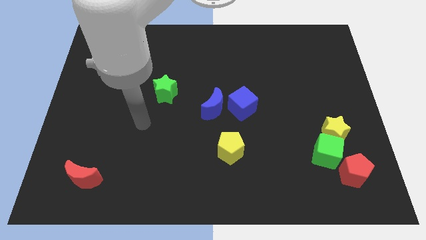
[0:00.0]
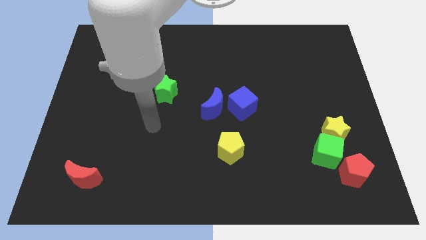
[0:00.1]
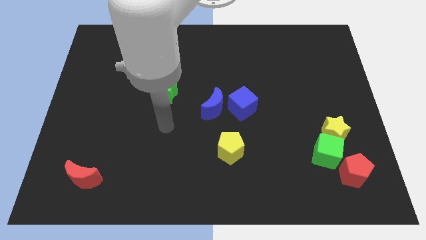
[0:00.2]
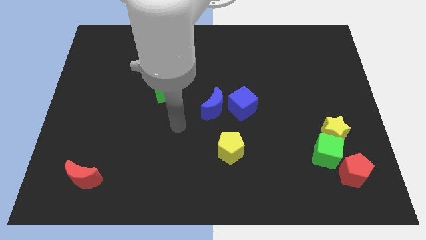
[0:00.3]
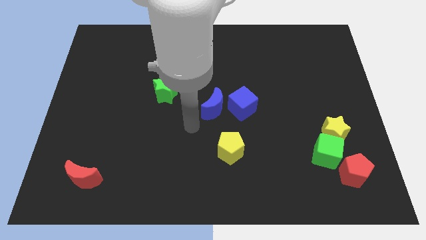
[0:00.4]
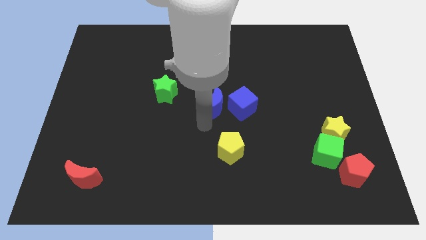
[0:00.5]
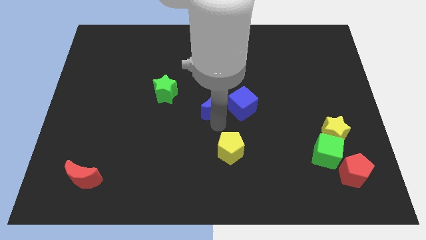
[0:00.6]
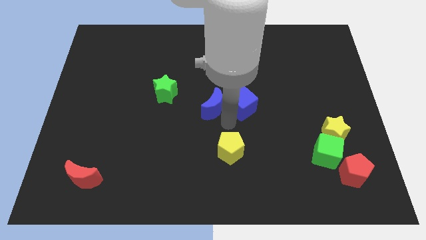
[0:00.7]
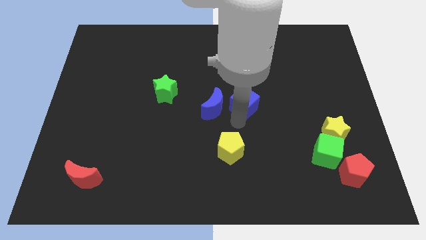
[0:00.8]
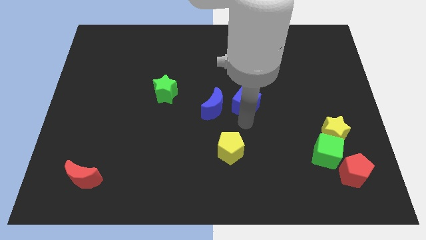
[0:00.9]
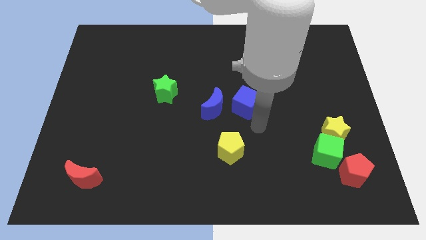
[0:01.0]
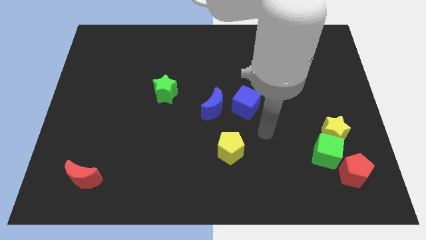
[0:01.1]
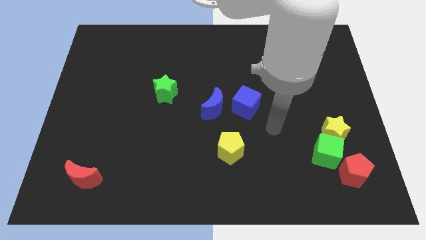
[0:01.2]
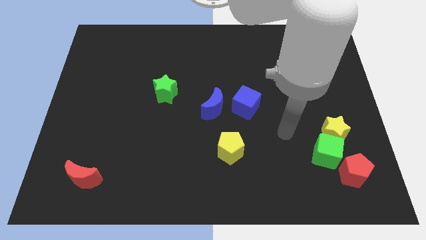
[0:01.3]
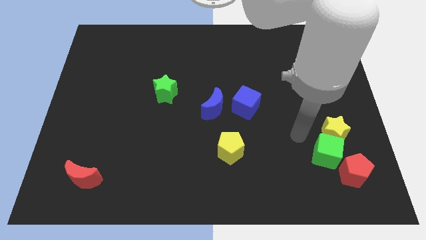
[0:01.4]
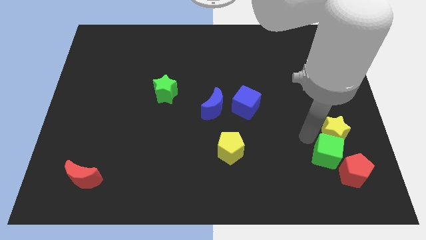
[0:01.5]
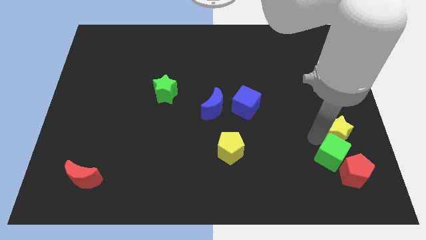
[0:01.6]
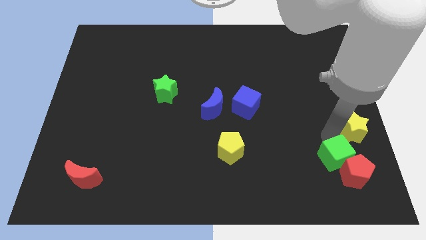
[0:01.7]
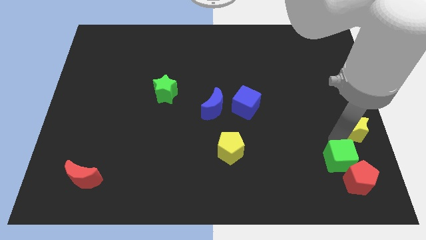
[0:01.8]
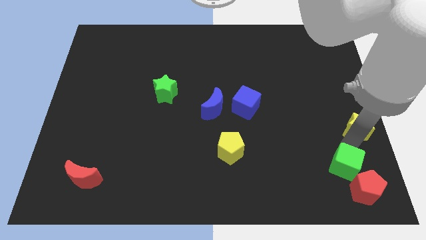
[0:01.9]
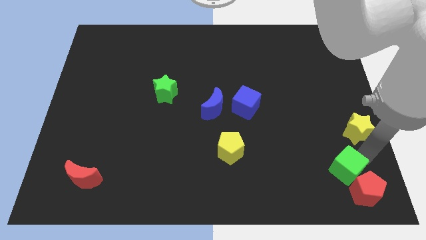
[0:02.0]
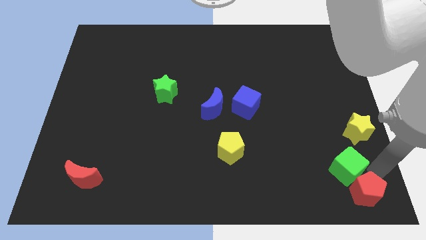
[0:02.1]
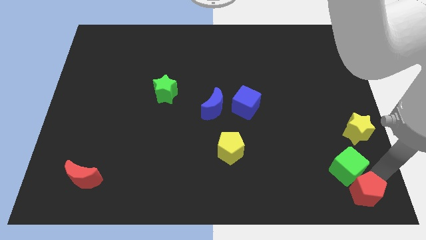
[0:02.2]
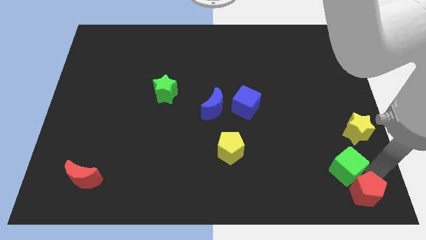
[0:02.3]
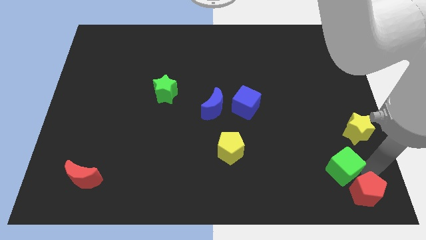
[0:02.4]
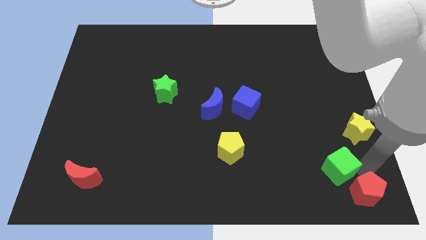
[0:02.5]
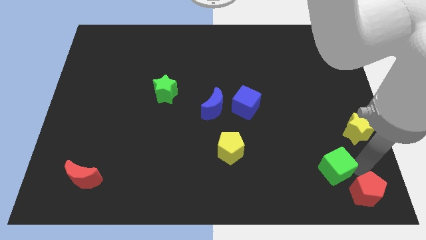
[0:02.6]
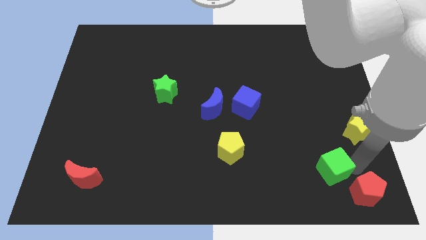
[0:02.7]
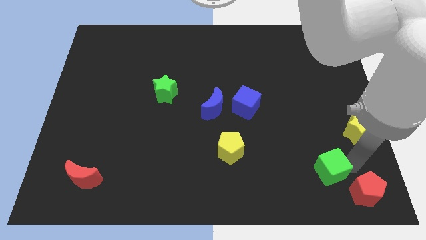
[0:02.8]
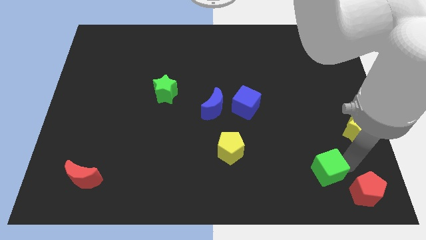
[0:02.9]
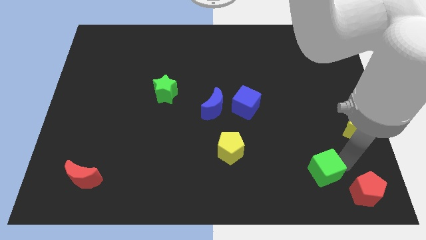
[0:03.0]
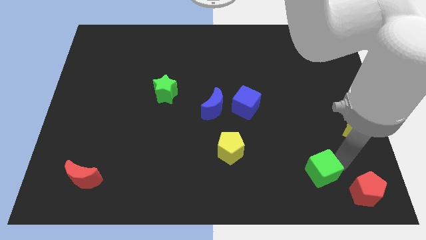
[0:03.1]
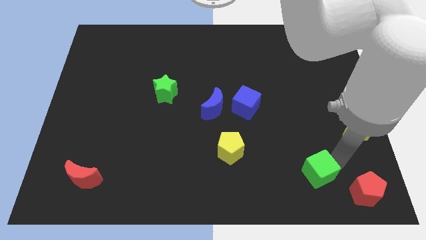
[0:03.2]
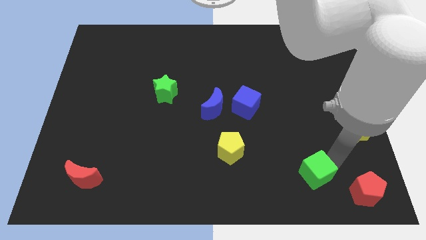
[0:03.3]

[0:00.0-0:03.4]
separate the green cube from the yellow star and red pentagon

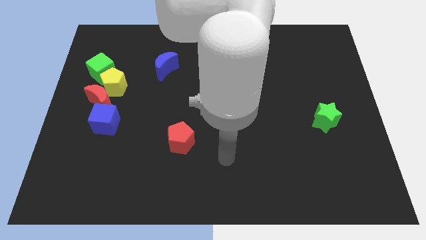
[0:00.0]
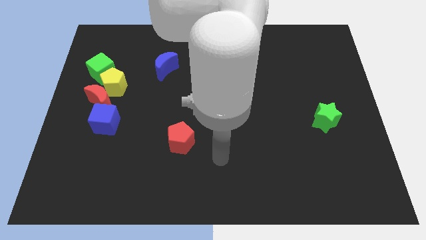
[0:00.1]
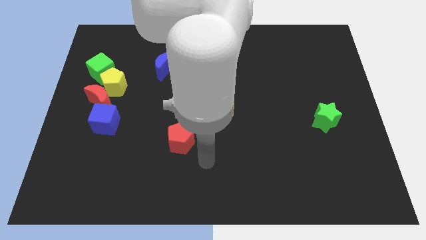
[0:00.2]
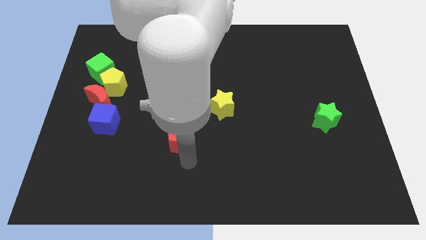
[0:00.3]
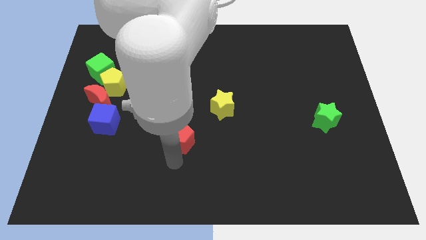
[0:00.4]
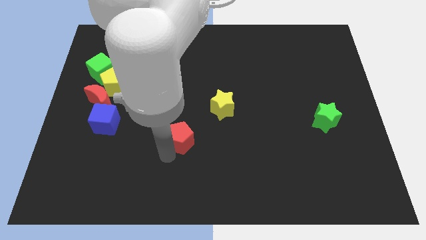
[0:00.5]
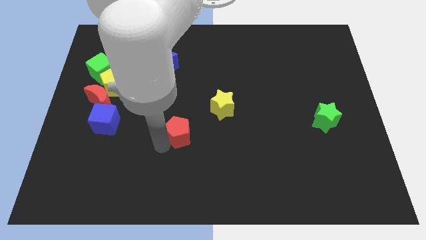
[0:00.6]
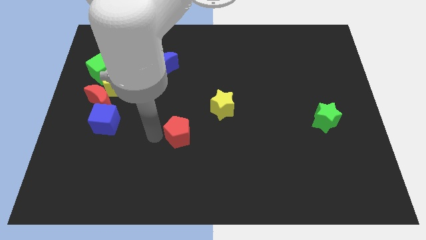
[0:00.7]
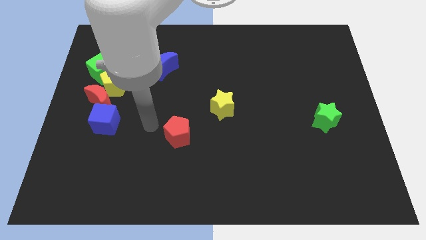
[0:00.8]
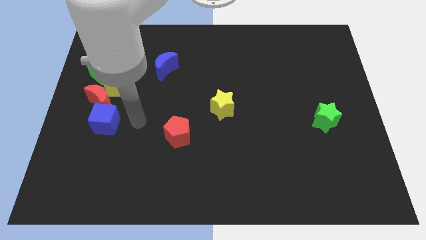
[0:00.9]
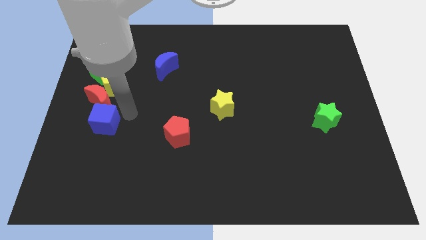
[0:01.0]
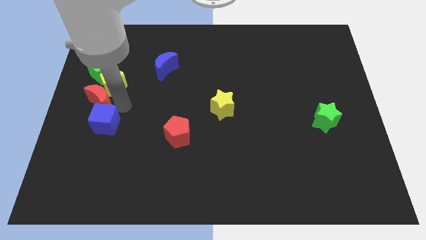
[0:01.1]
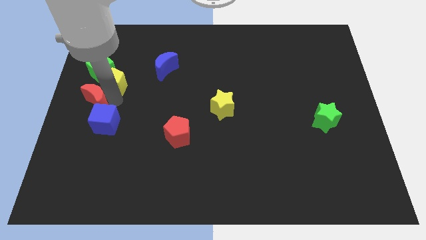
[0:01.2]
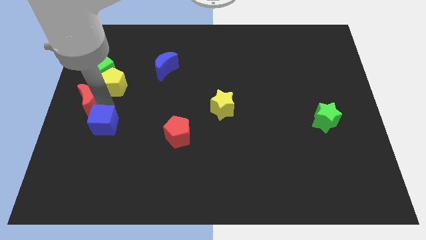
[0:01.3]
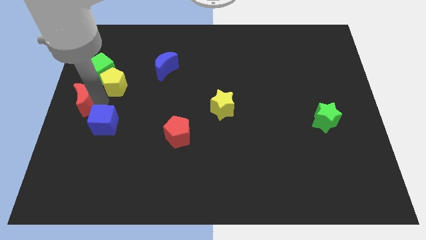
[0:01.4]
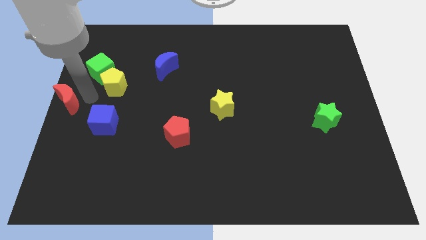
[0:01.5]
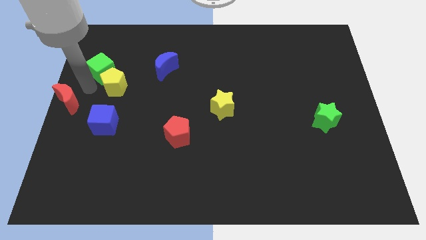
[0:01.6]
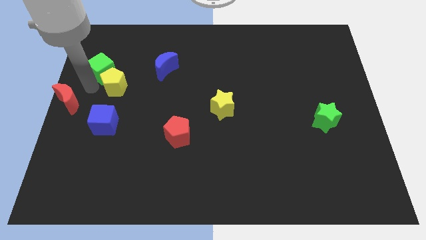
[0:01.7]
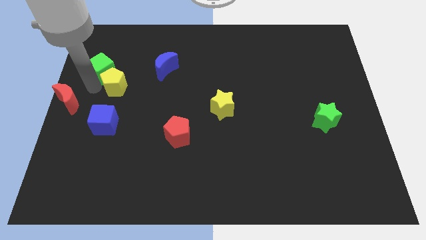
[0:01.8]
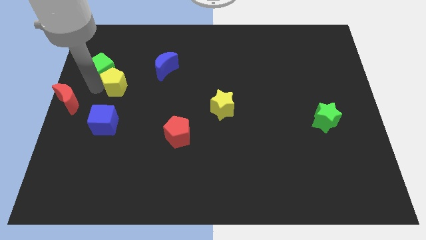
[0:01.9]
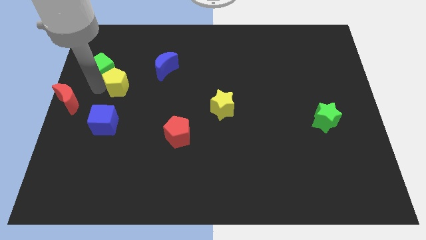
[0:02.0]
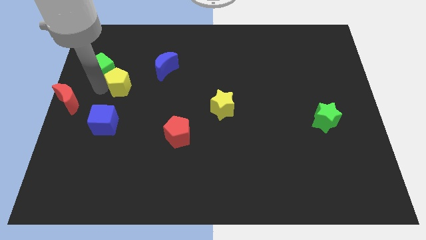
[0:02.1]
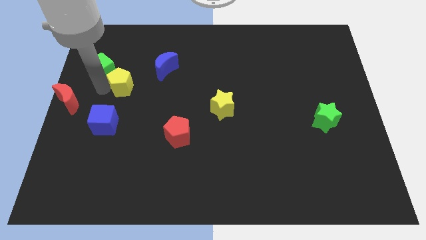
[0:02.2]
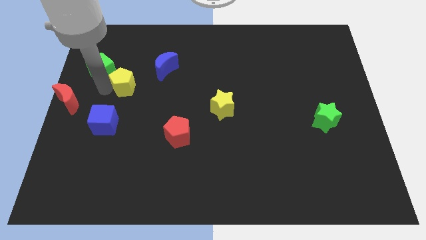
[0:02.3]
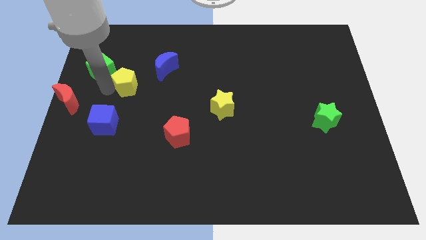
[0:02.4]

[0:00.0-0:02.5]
move the yellow pentagon away from the red moon and green cube

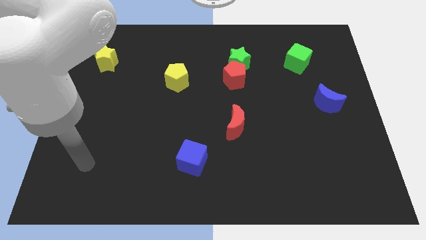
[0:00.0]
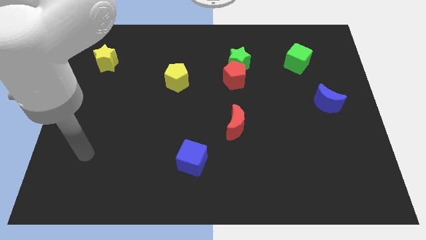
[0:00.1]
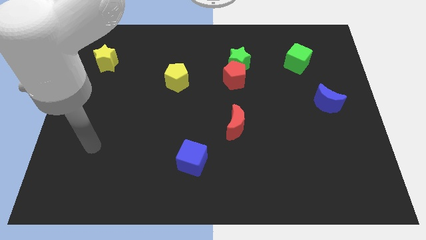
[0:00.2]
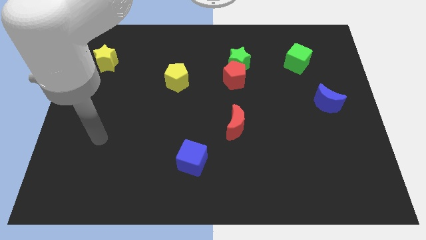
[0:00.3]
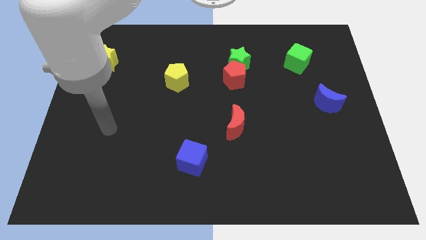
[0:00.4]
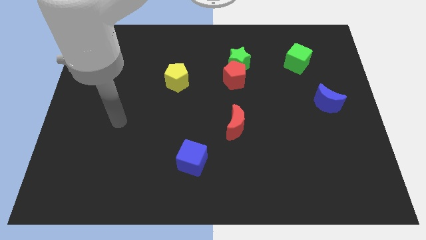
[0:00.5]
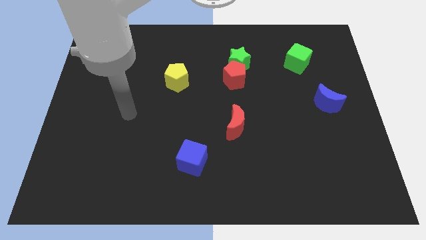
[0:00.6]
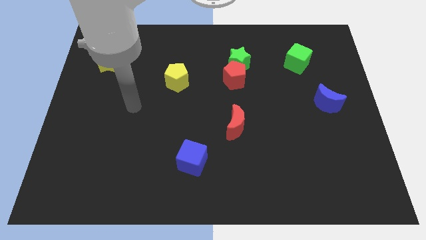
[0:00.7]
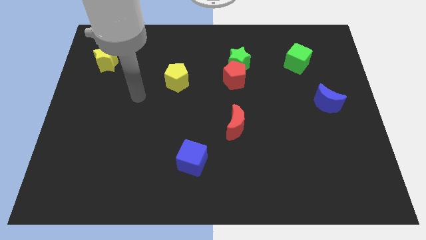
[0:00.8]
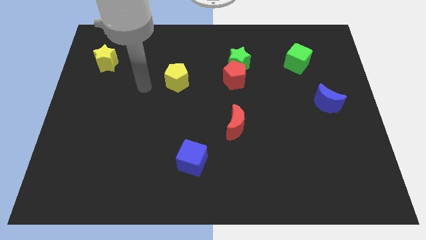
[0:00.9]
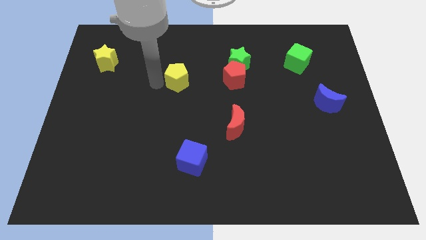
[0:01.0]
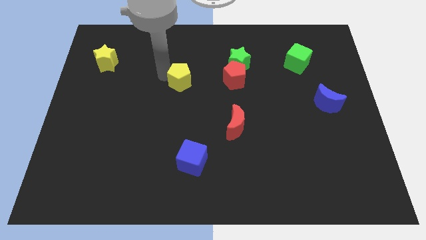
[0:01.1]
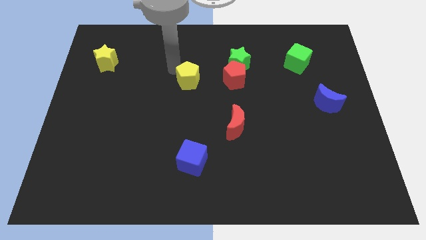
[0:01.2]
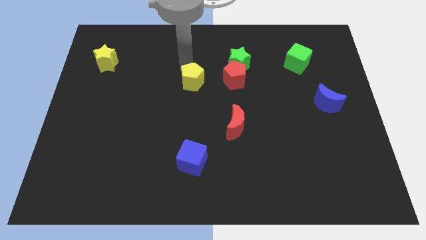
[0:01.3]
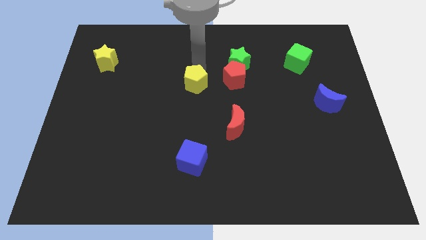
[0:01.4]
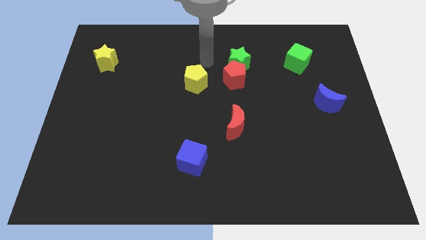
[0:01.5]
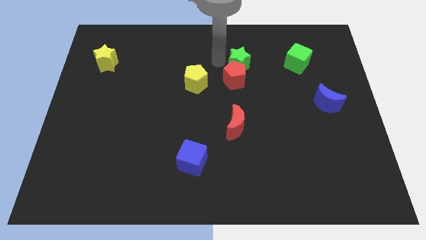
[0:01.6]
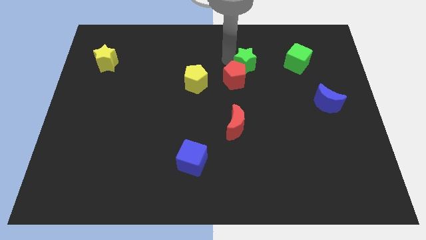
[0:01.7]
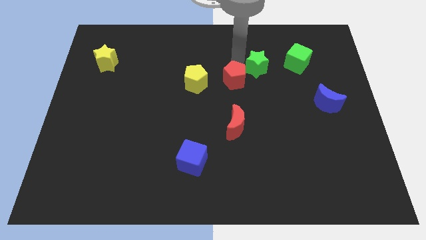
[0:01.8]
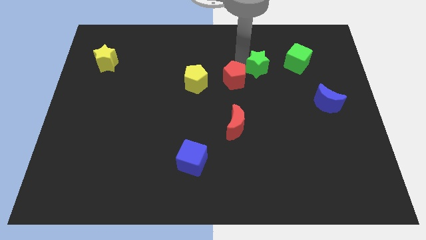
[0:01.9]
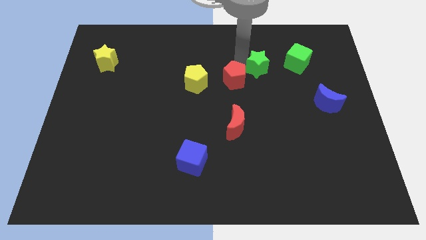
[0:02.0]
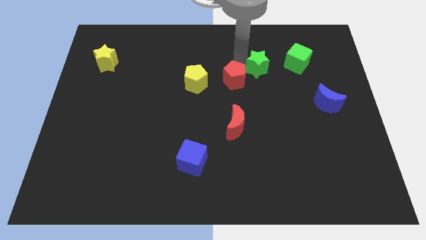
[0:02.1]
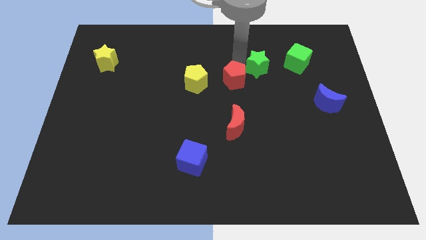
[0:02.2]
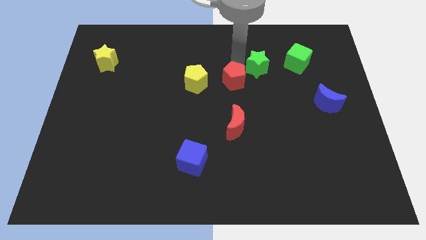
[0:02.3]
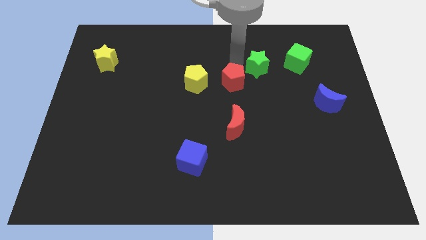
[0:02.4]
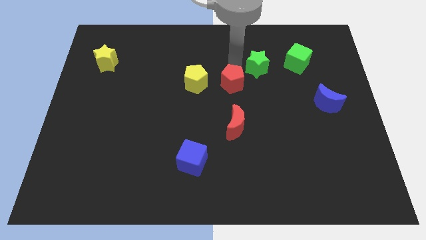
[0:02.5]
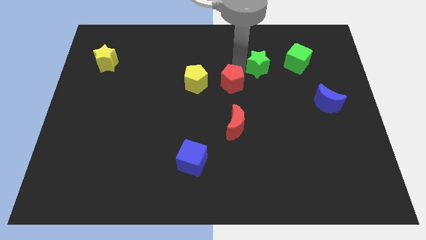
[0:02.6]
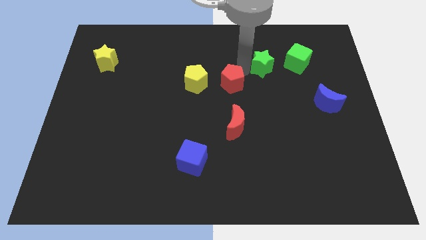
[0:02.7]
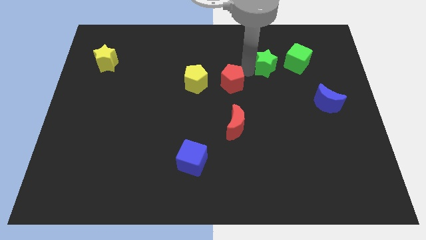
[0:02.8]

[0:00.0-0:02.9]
move the red pentagon away from the green star

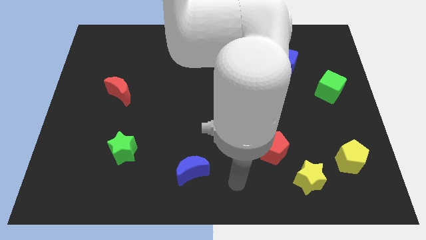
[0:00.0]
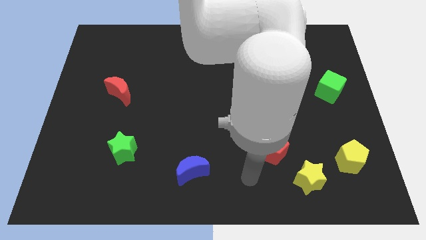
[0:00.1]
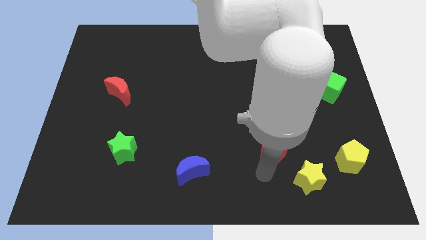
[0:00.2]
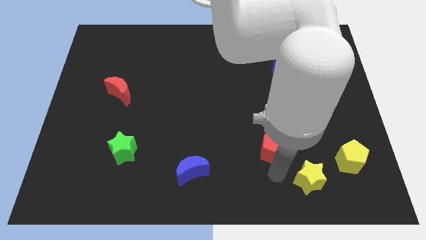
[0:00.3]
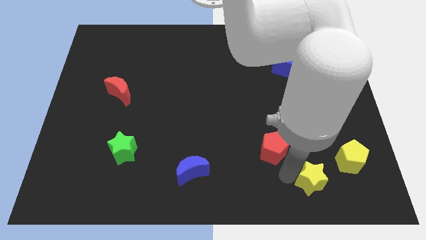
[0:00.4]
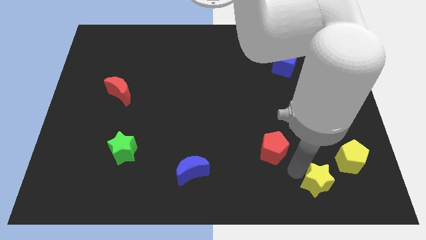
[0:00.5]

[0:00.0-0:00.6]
separate the red pentagon from the yellow star
